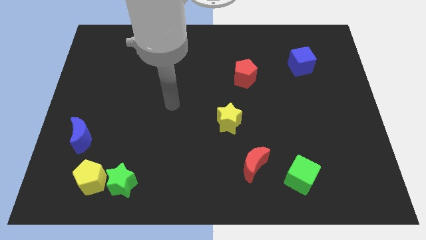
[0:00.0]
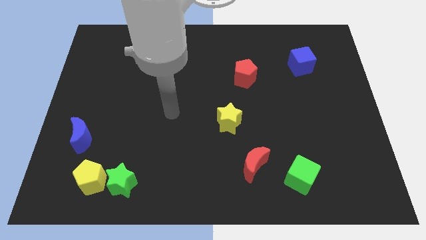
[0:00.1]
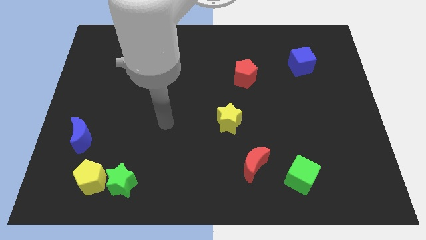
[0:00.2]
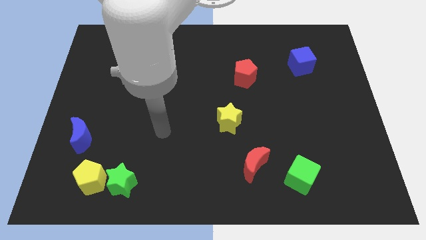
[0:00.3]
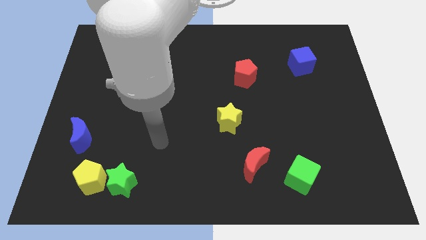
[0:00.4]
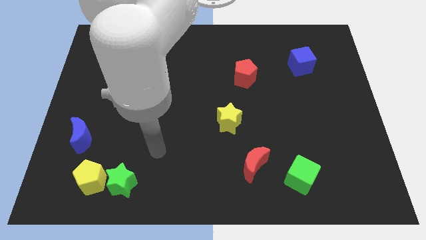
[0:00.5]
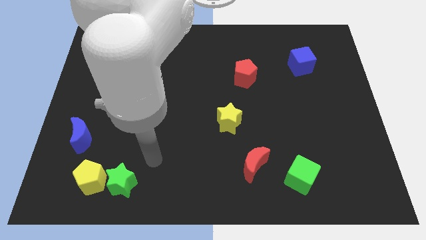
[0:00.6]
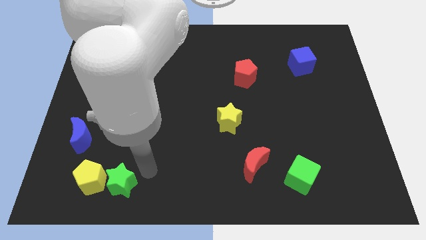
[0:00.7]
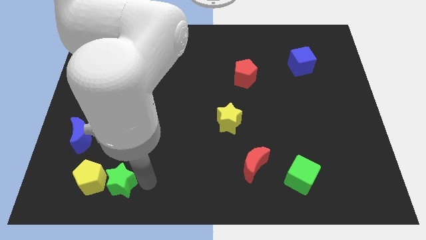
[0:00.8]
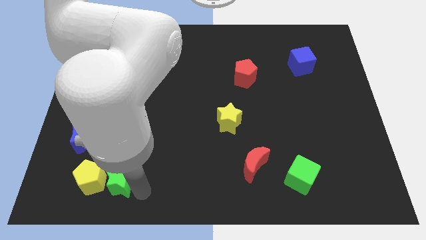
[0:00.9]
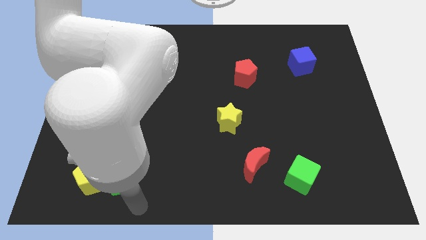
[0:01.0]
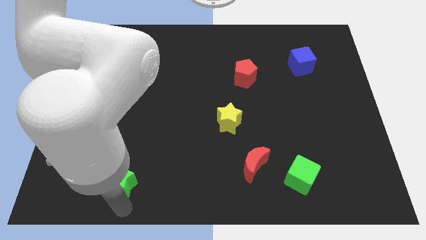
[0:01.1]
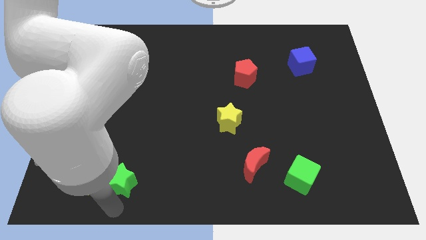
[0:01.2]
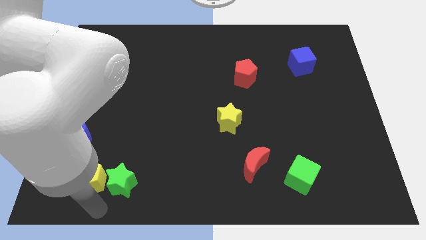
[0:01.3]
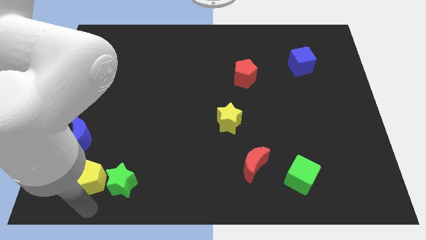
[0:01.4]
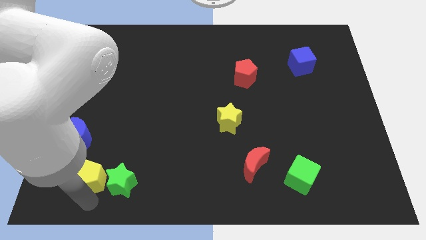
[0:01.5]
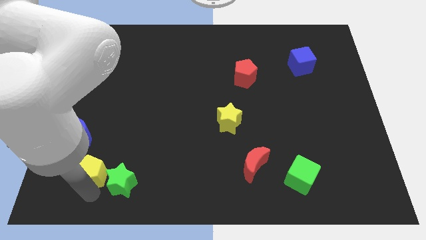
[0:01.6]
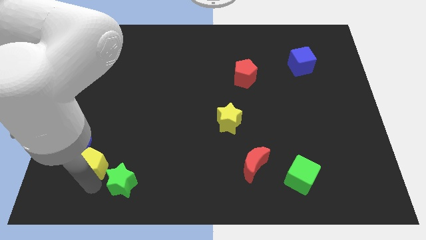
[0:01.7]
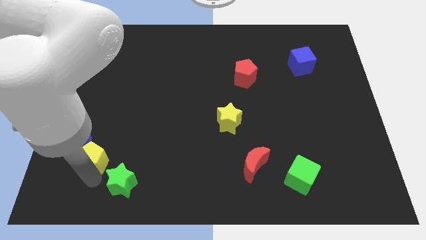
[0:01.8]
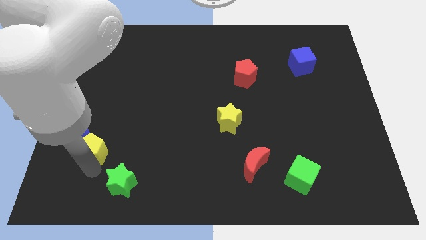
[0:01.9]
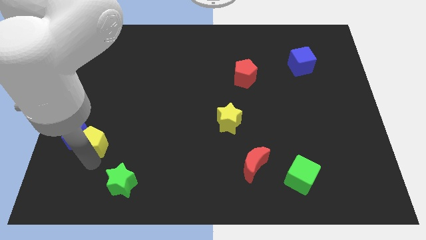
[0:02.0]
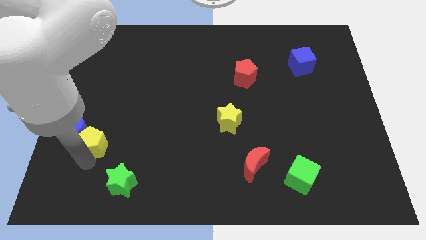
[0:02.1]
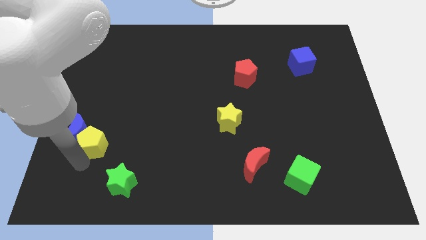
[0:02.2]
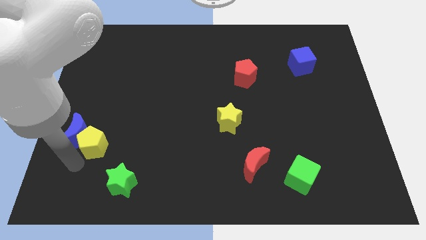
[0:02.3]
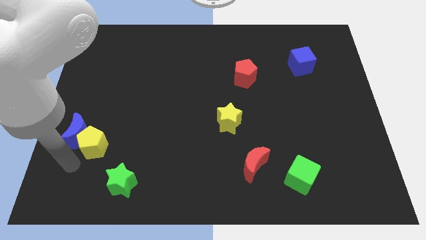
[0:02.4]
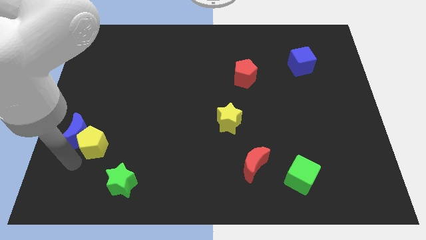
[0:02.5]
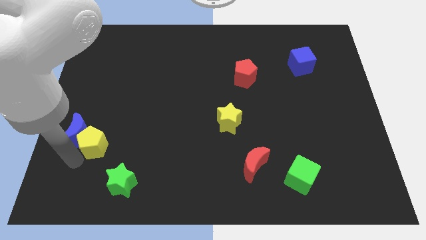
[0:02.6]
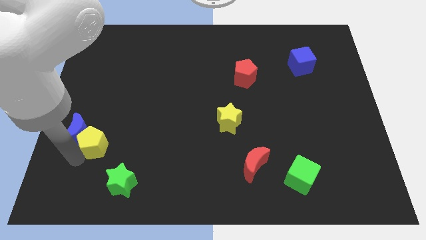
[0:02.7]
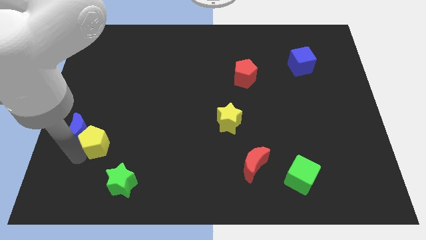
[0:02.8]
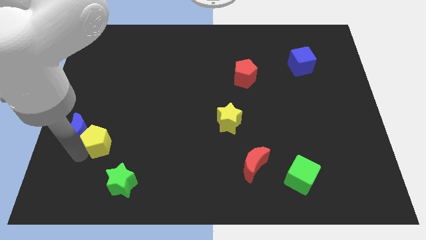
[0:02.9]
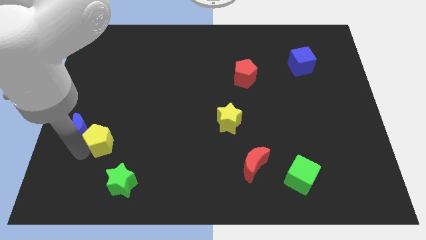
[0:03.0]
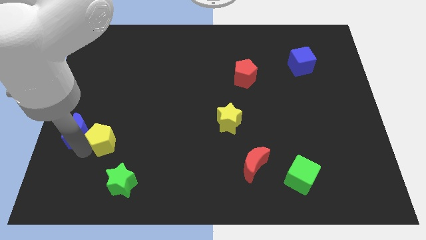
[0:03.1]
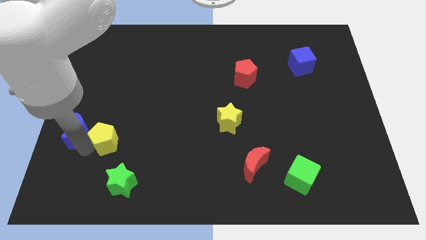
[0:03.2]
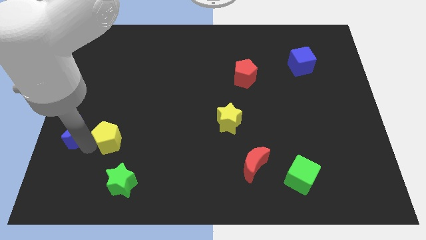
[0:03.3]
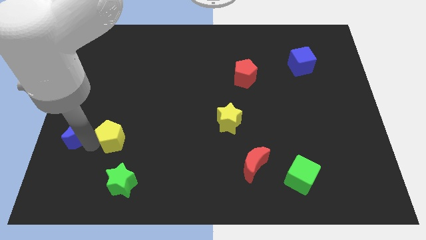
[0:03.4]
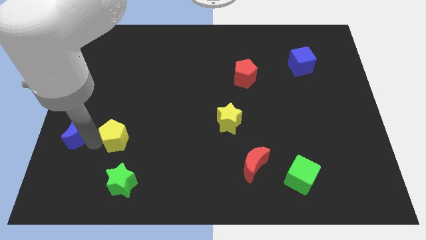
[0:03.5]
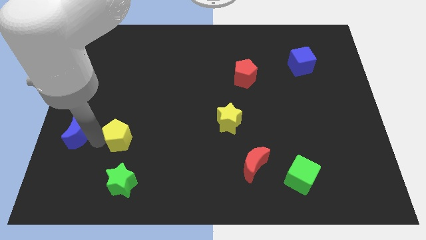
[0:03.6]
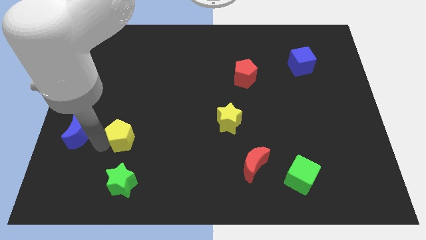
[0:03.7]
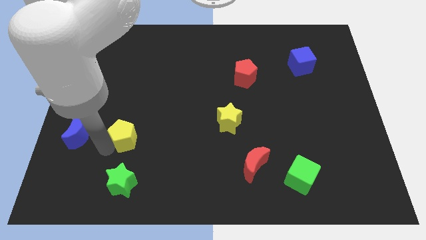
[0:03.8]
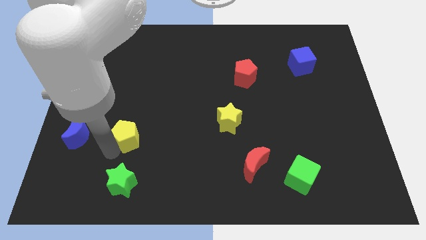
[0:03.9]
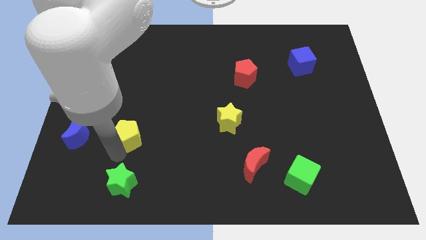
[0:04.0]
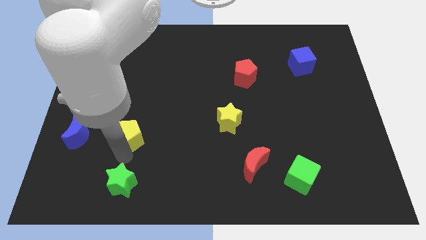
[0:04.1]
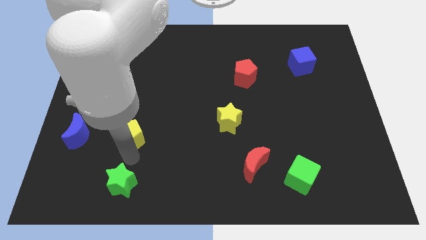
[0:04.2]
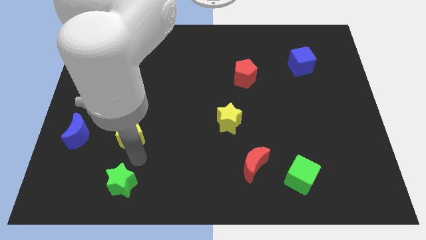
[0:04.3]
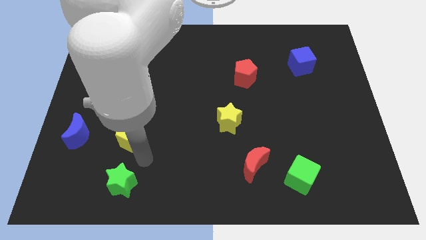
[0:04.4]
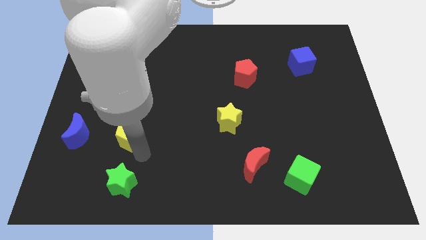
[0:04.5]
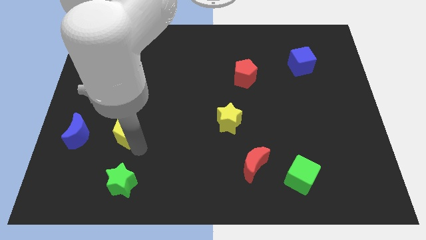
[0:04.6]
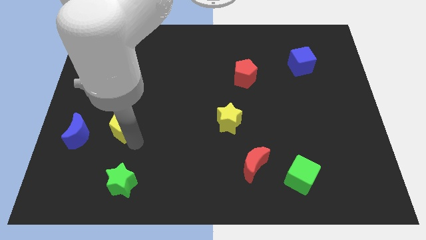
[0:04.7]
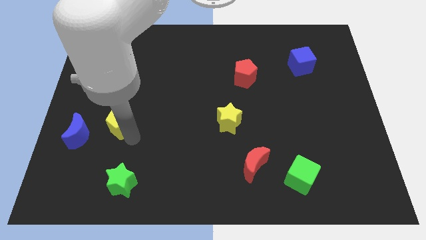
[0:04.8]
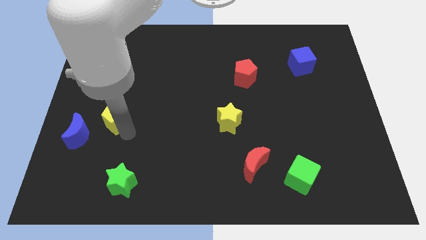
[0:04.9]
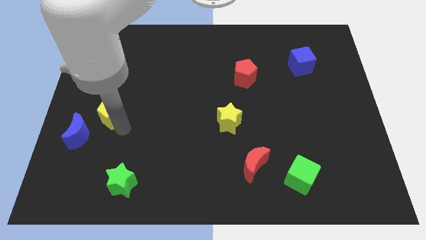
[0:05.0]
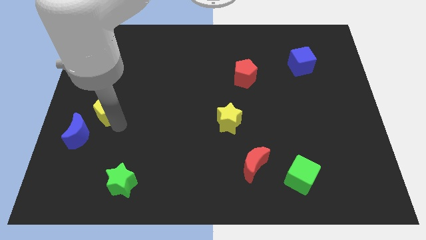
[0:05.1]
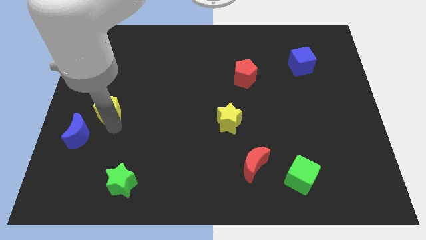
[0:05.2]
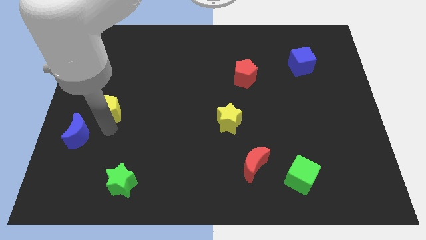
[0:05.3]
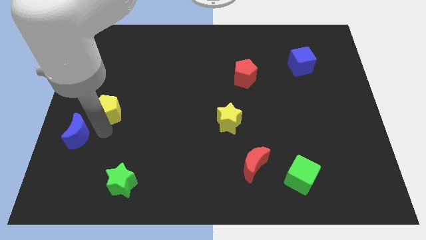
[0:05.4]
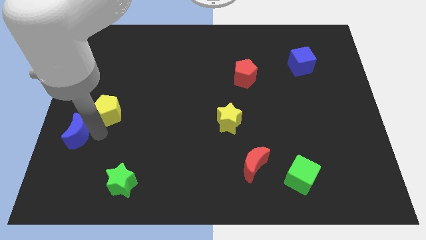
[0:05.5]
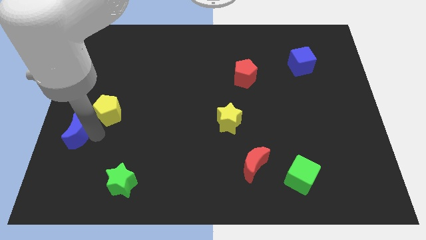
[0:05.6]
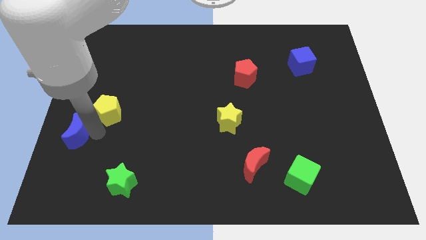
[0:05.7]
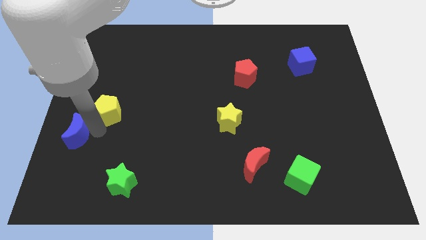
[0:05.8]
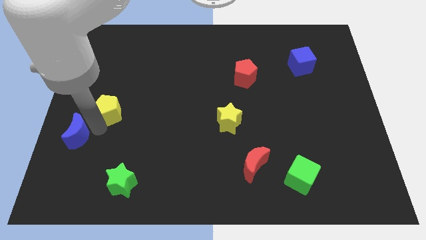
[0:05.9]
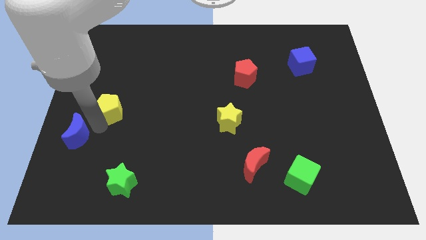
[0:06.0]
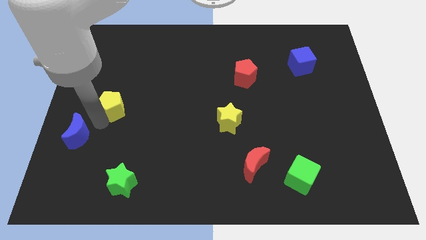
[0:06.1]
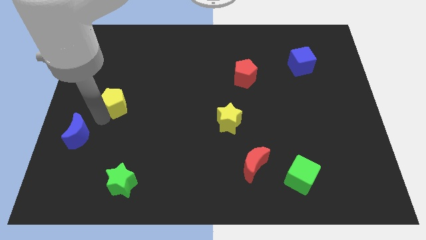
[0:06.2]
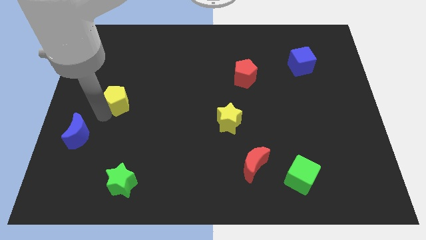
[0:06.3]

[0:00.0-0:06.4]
slide the yellow pentagon upwards

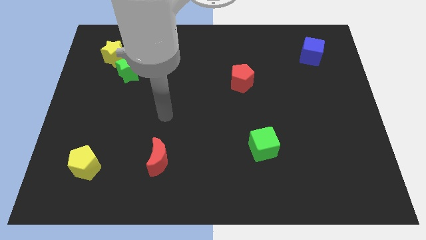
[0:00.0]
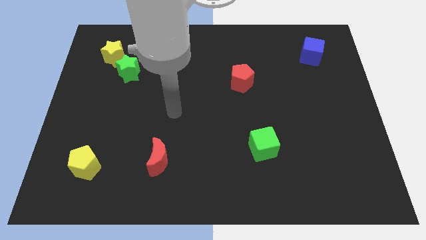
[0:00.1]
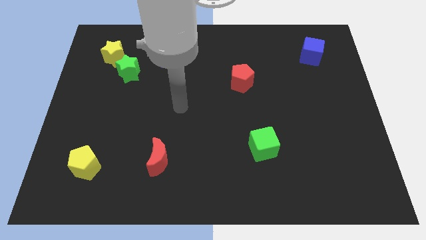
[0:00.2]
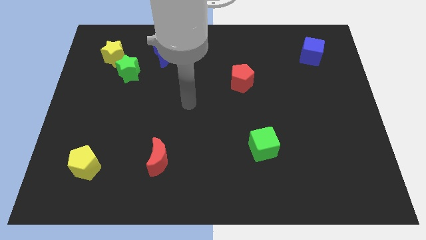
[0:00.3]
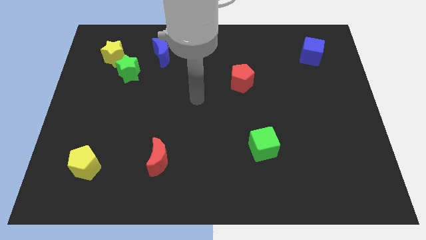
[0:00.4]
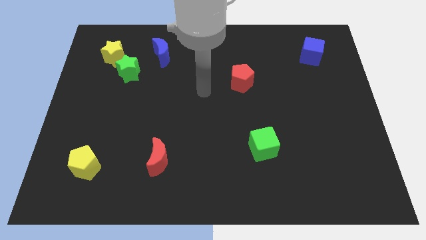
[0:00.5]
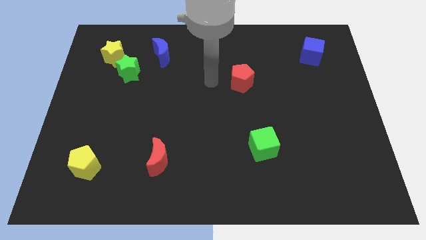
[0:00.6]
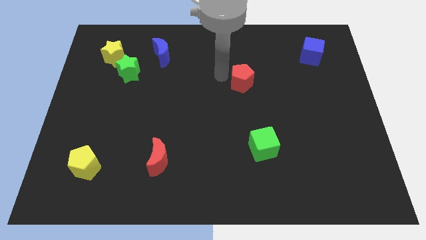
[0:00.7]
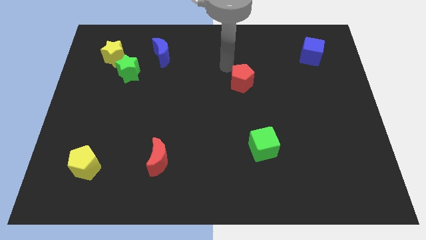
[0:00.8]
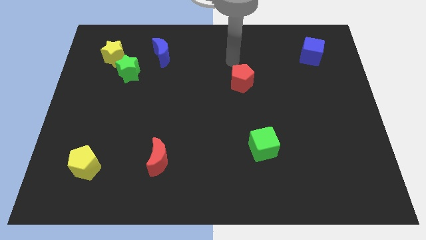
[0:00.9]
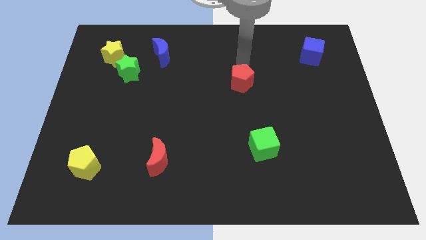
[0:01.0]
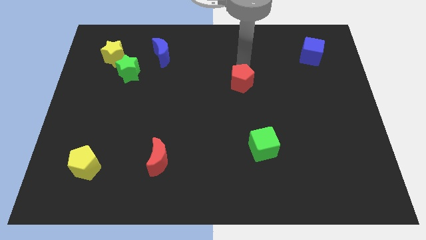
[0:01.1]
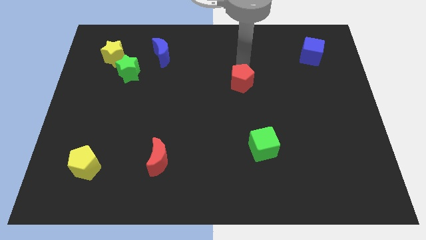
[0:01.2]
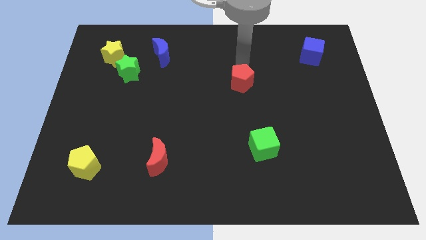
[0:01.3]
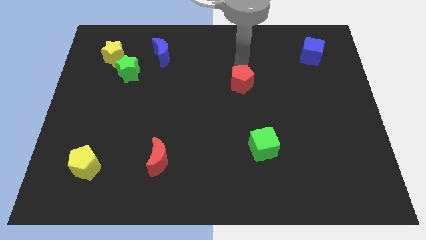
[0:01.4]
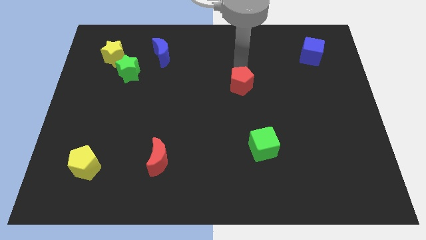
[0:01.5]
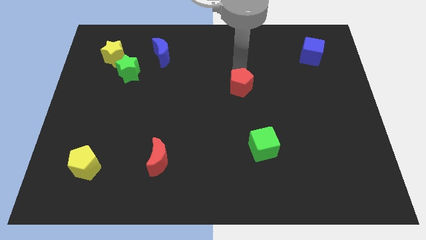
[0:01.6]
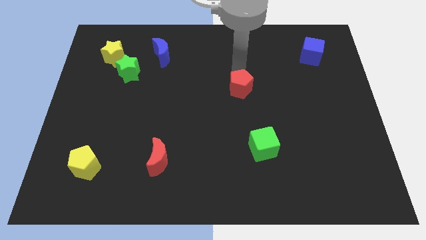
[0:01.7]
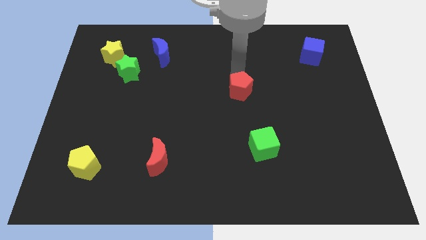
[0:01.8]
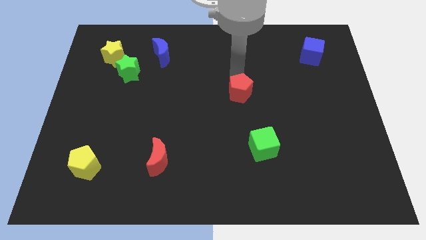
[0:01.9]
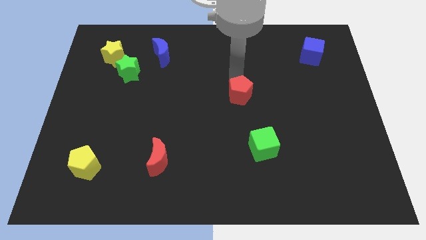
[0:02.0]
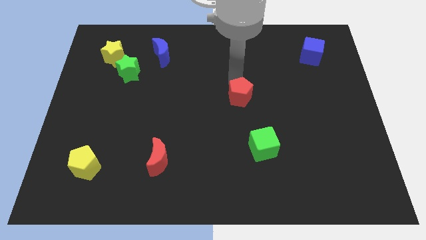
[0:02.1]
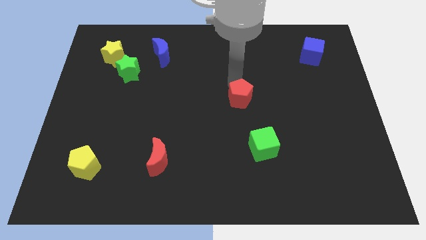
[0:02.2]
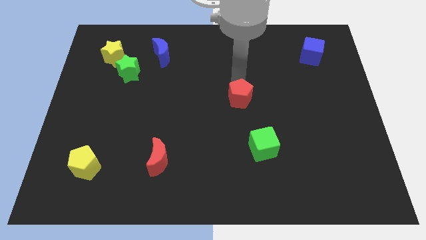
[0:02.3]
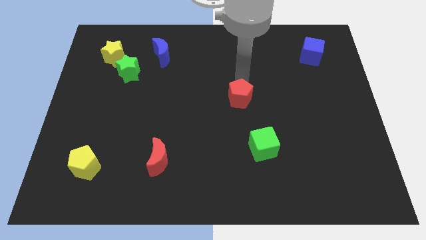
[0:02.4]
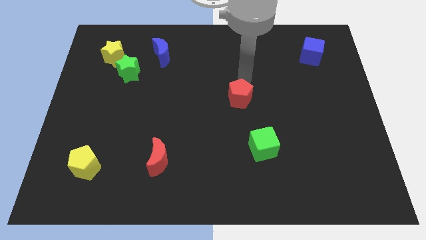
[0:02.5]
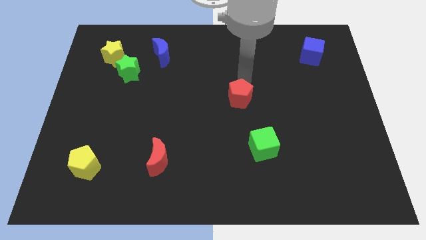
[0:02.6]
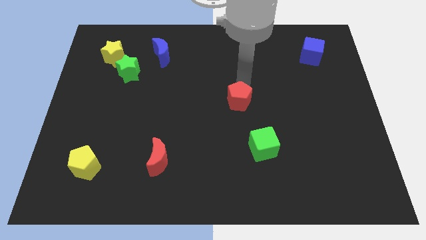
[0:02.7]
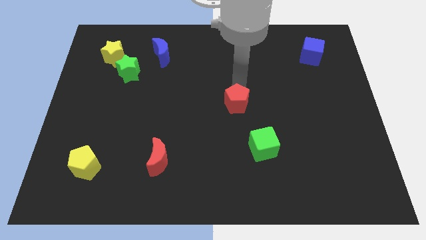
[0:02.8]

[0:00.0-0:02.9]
push the red pentagon downwards a little bit
